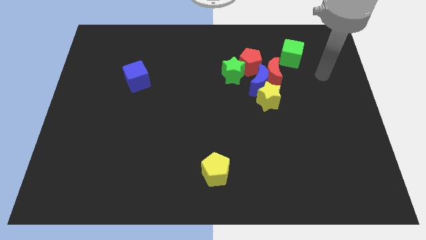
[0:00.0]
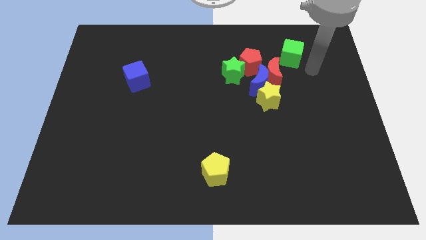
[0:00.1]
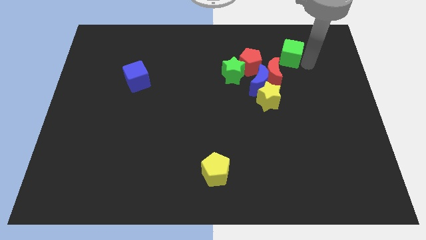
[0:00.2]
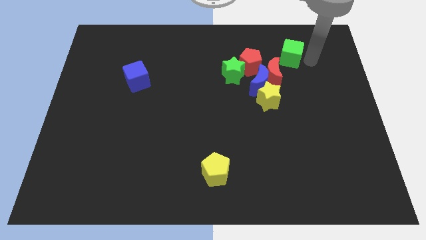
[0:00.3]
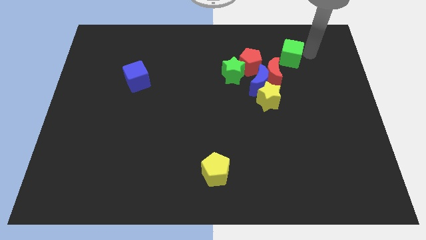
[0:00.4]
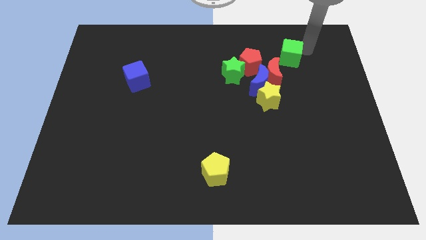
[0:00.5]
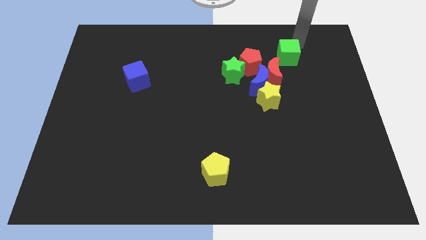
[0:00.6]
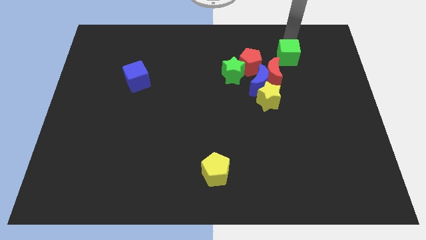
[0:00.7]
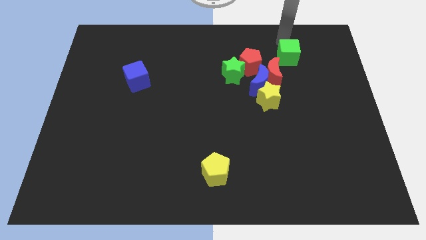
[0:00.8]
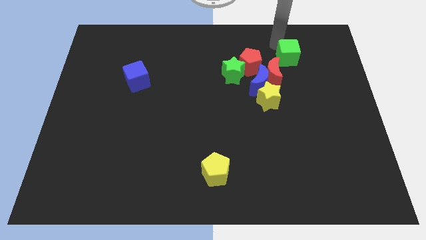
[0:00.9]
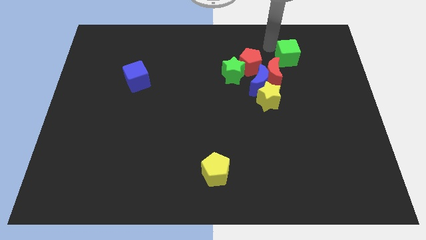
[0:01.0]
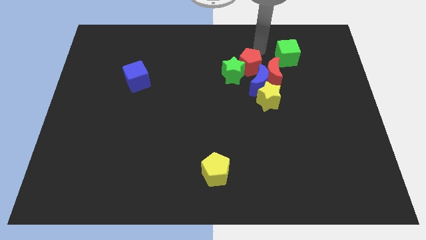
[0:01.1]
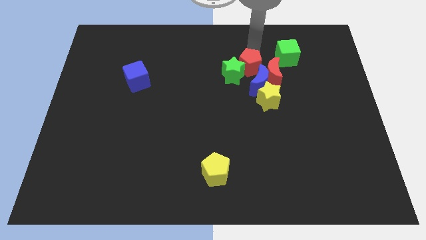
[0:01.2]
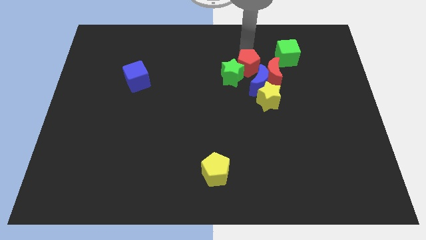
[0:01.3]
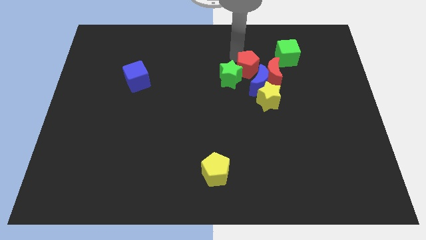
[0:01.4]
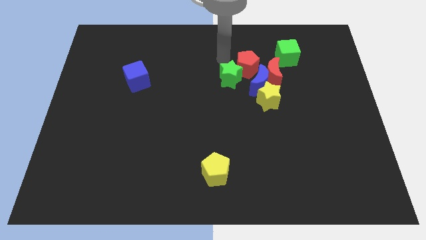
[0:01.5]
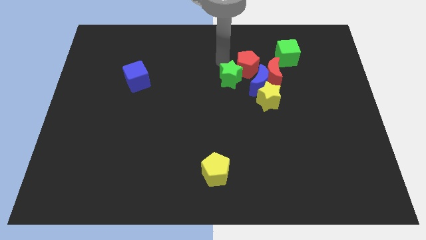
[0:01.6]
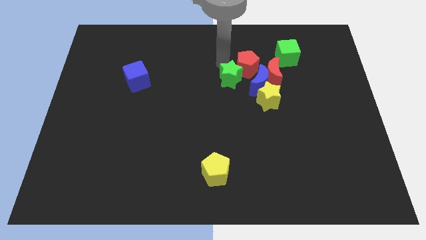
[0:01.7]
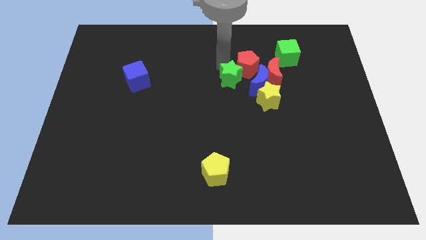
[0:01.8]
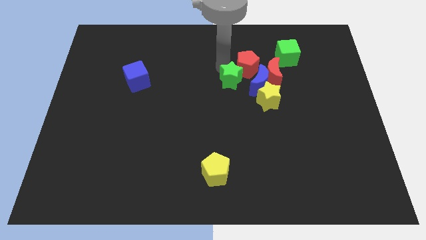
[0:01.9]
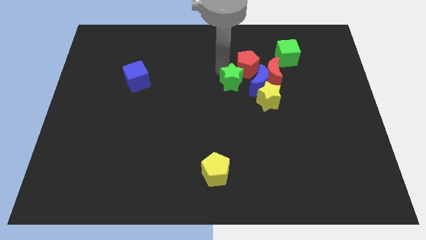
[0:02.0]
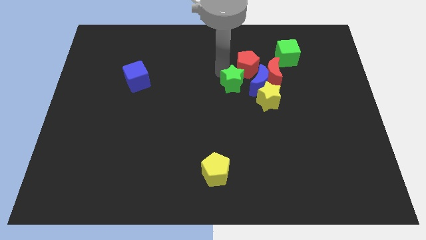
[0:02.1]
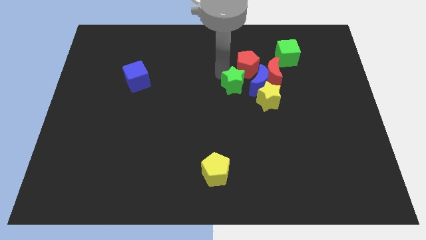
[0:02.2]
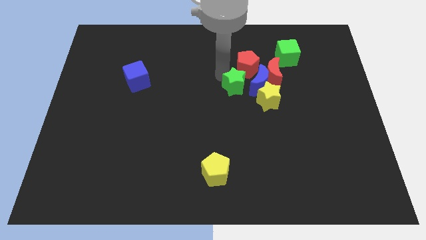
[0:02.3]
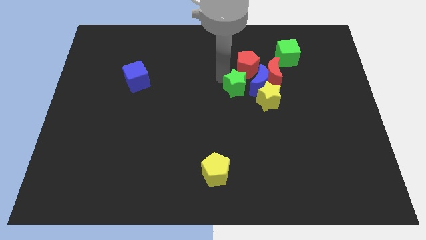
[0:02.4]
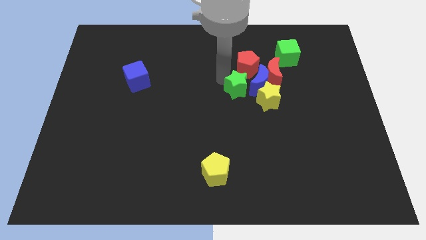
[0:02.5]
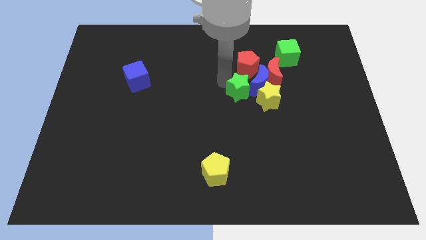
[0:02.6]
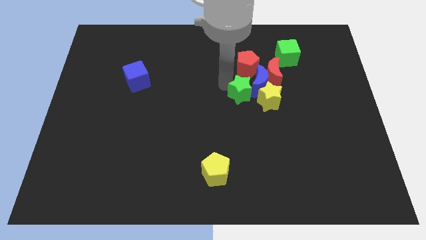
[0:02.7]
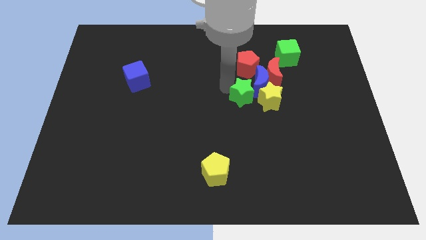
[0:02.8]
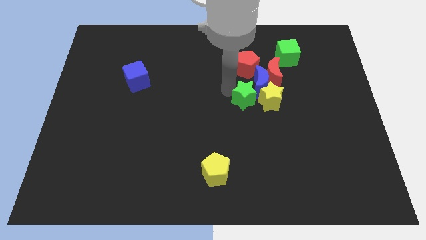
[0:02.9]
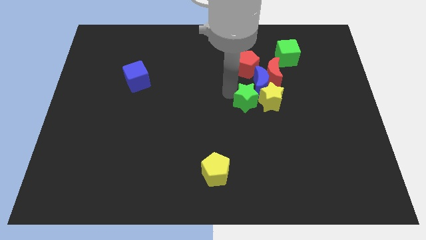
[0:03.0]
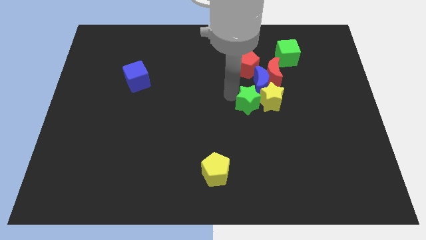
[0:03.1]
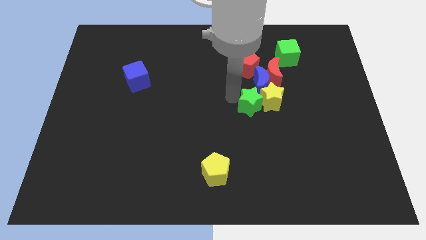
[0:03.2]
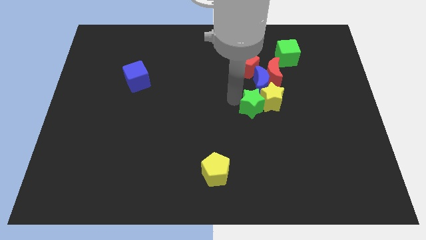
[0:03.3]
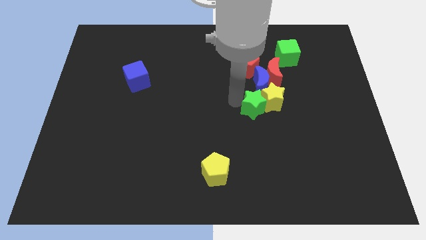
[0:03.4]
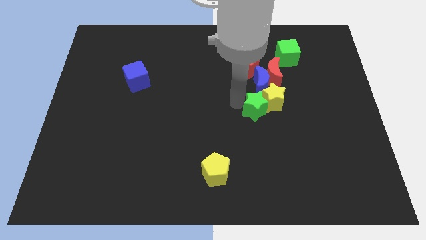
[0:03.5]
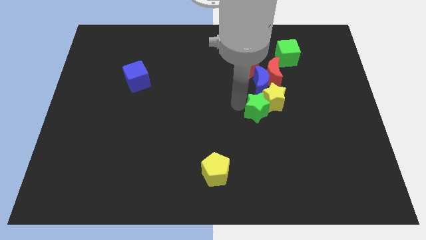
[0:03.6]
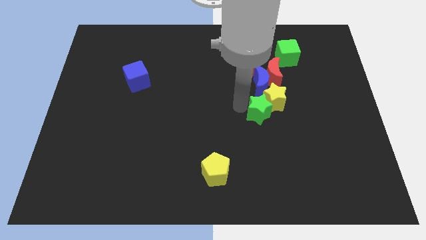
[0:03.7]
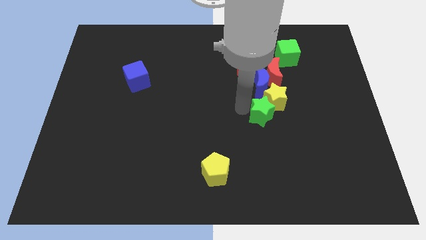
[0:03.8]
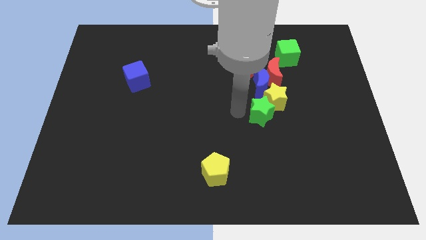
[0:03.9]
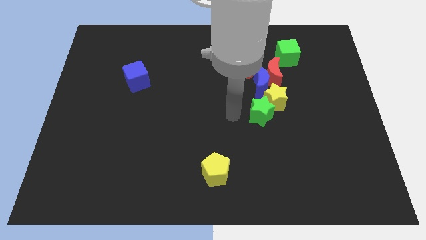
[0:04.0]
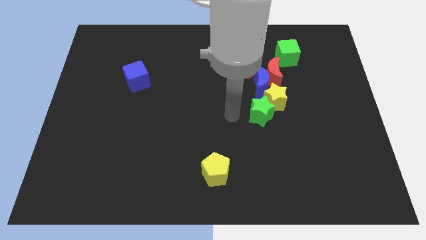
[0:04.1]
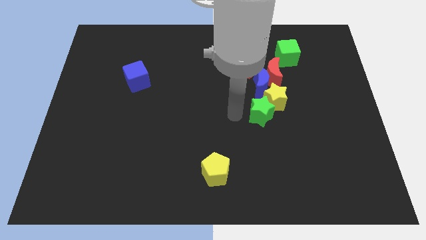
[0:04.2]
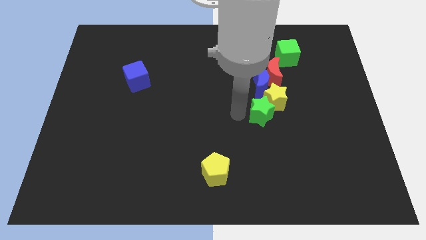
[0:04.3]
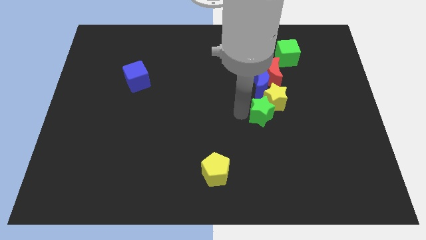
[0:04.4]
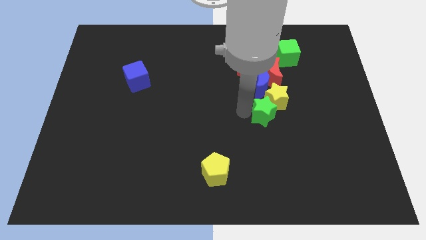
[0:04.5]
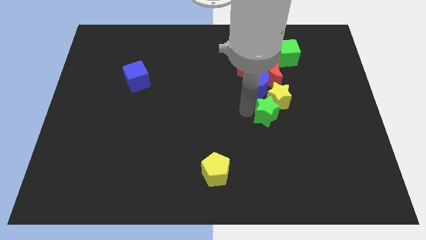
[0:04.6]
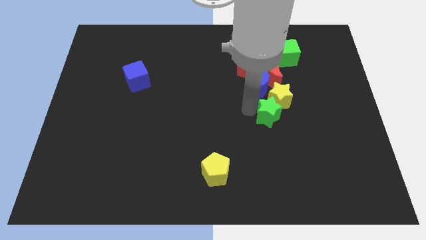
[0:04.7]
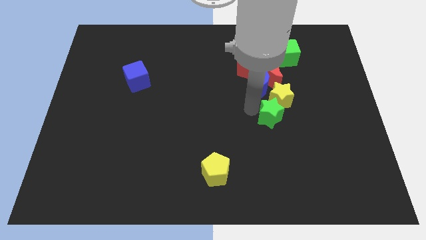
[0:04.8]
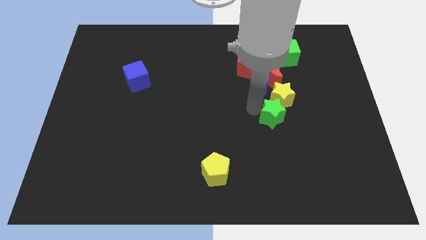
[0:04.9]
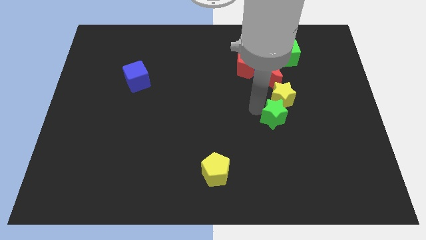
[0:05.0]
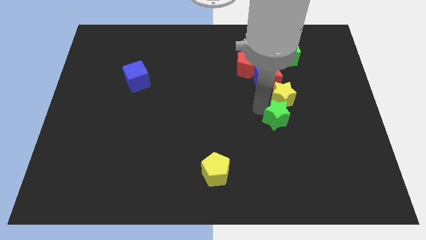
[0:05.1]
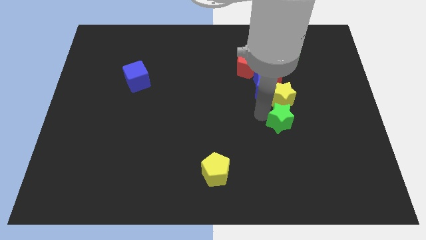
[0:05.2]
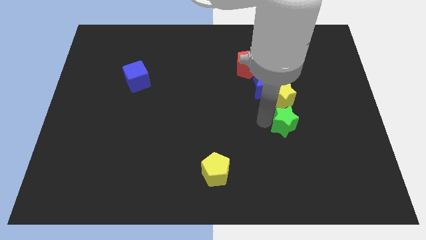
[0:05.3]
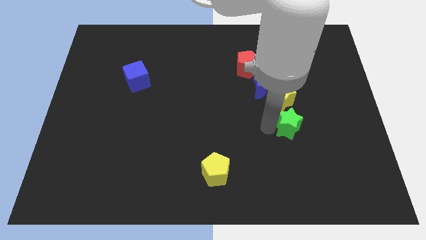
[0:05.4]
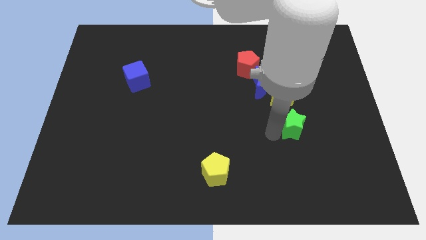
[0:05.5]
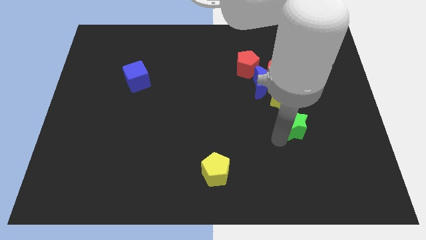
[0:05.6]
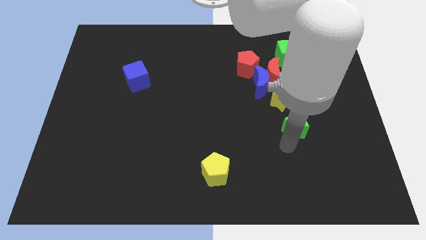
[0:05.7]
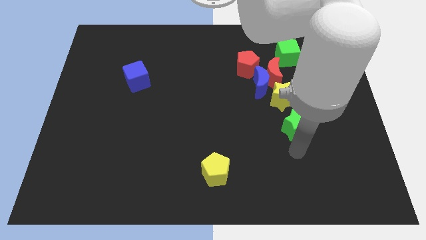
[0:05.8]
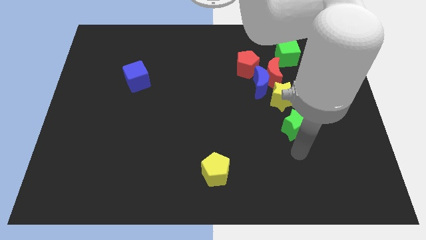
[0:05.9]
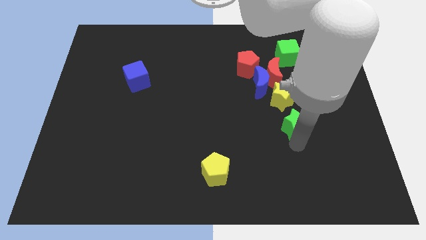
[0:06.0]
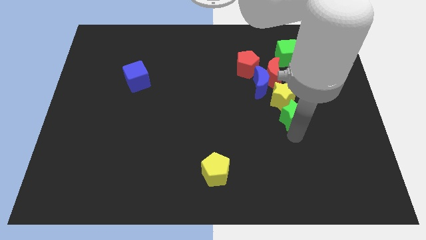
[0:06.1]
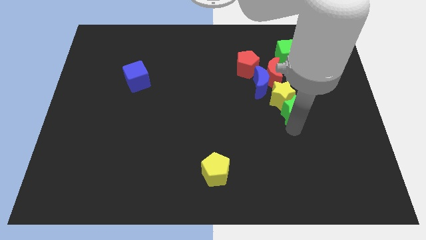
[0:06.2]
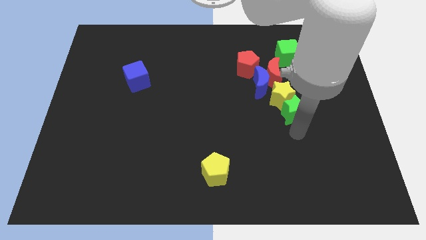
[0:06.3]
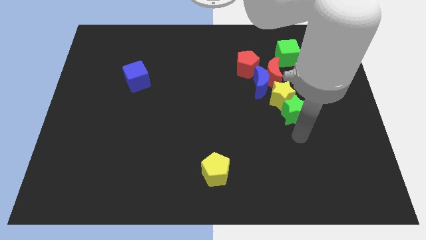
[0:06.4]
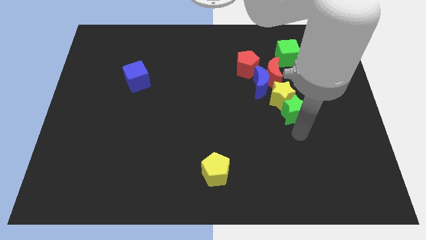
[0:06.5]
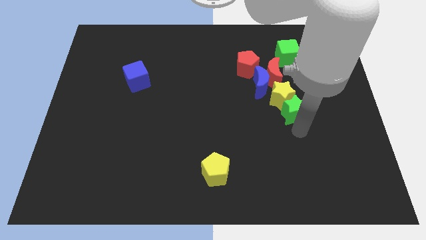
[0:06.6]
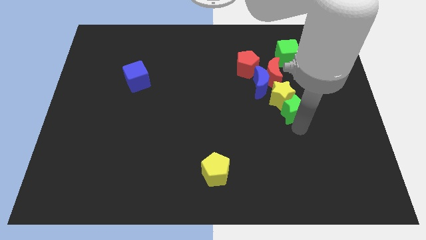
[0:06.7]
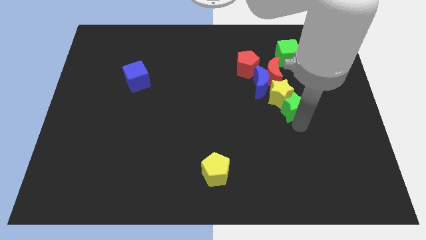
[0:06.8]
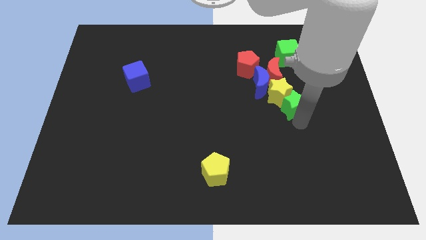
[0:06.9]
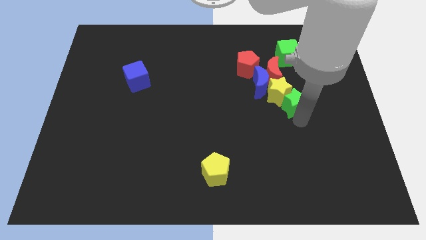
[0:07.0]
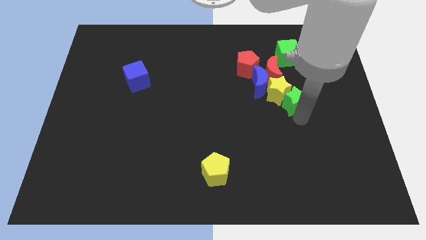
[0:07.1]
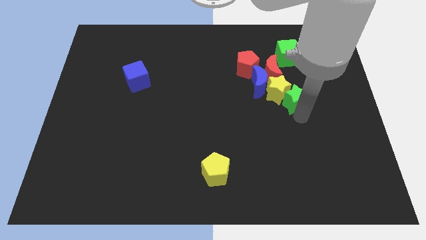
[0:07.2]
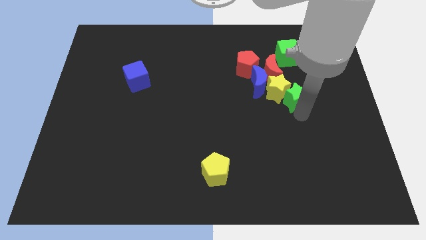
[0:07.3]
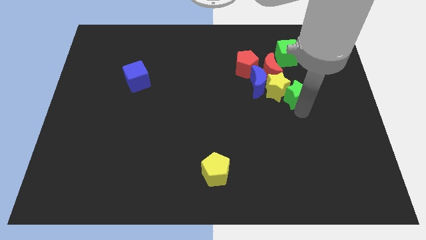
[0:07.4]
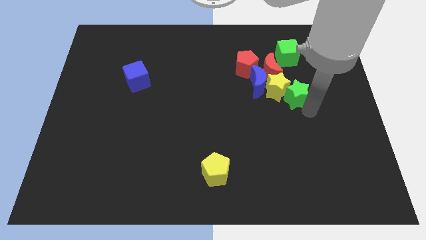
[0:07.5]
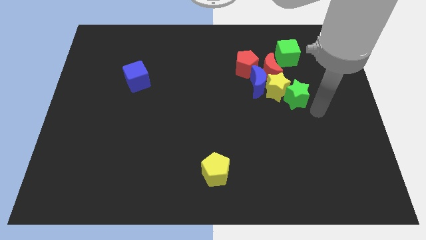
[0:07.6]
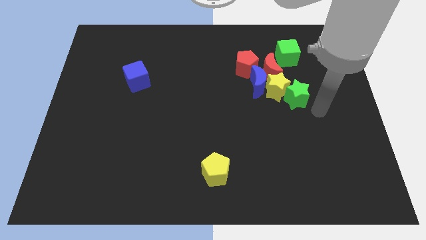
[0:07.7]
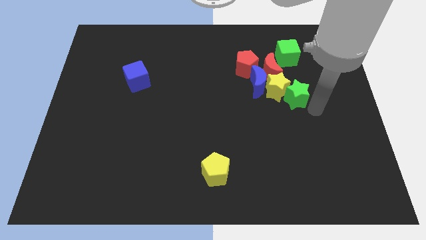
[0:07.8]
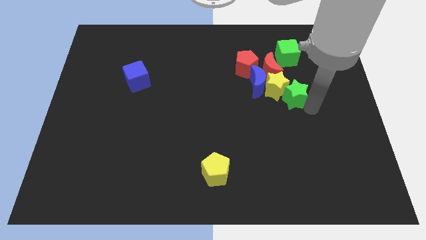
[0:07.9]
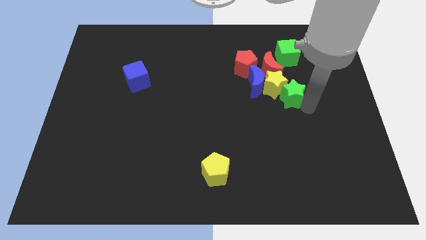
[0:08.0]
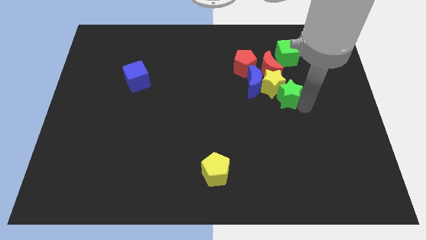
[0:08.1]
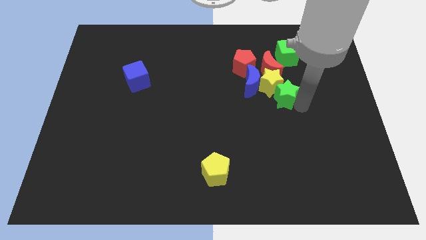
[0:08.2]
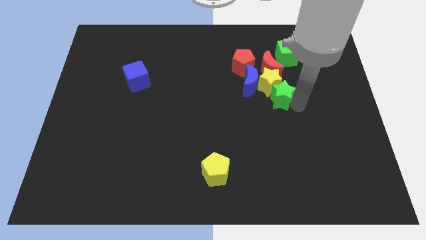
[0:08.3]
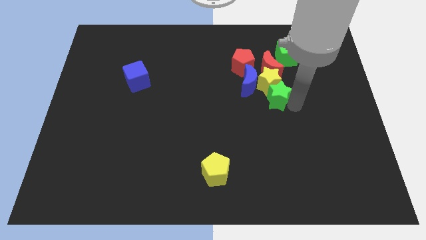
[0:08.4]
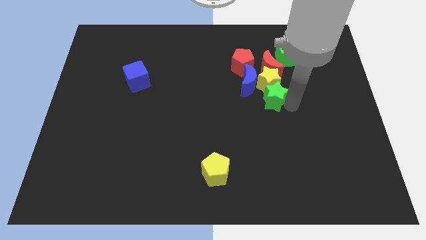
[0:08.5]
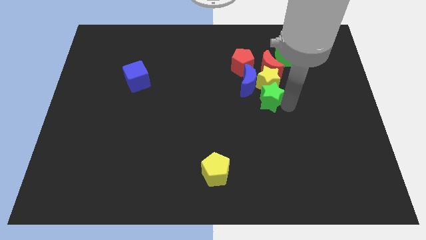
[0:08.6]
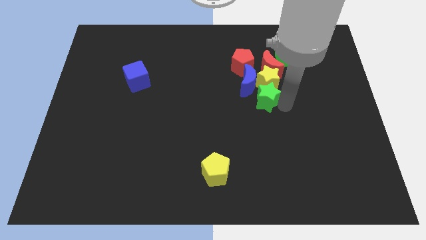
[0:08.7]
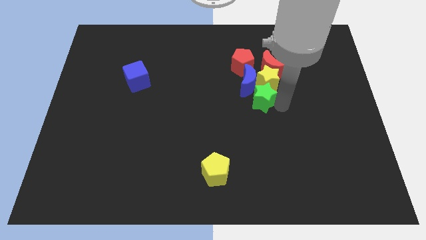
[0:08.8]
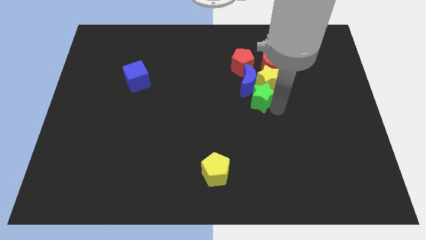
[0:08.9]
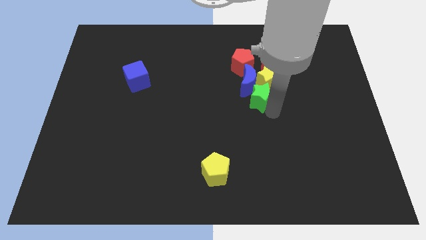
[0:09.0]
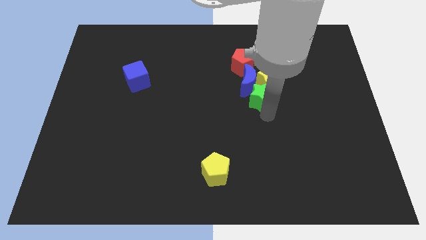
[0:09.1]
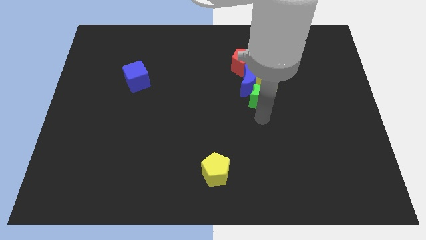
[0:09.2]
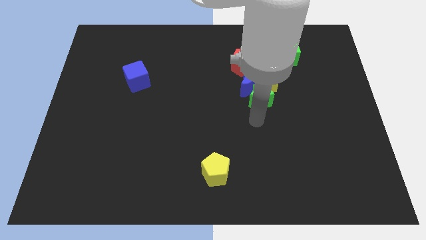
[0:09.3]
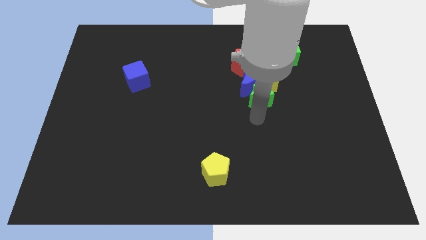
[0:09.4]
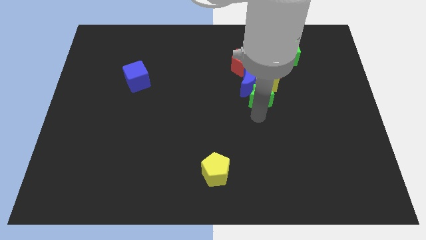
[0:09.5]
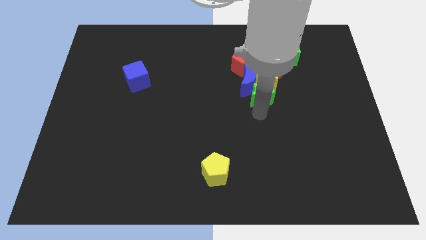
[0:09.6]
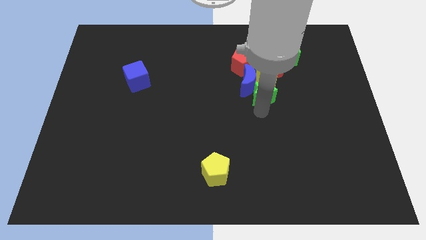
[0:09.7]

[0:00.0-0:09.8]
move the green star to the bottom right of the red pentagon
